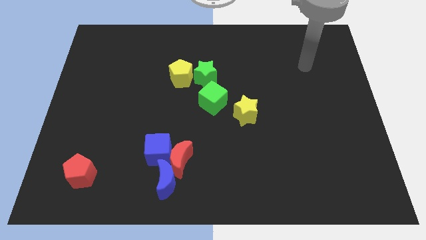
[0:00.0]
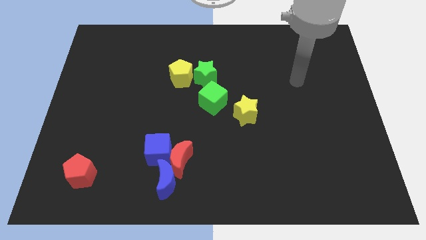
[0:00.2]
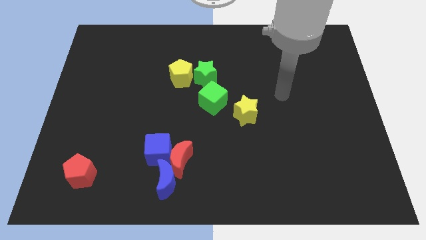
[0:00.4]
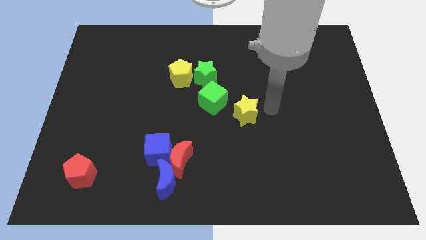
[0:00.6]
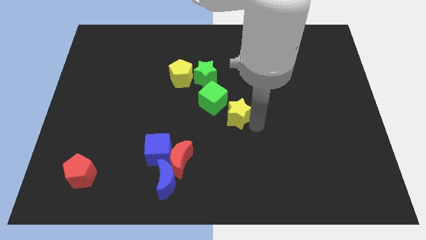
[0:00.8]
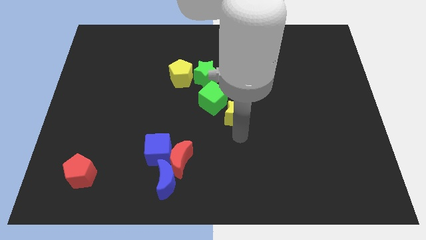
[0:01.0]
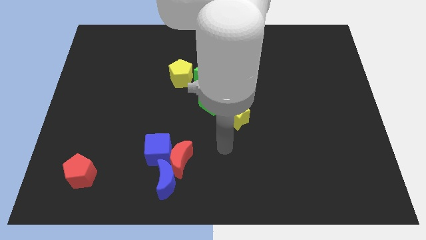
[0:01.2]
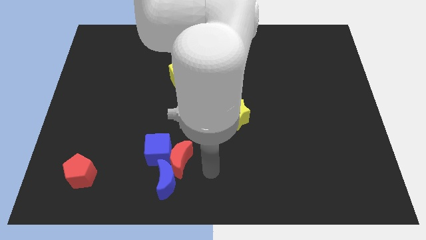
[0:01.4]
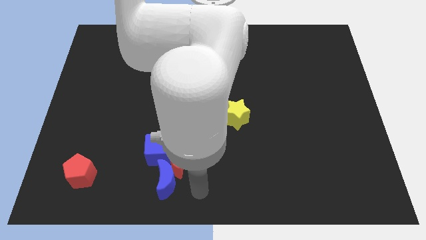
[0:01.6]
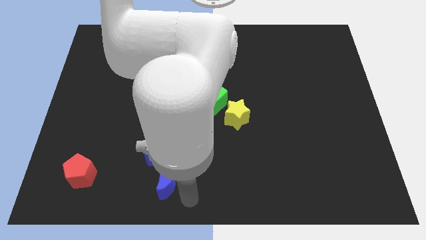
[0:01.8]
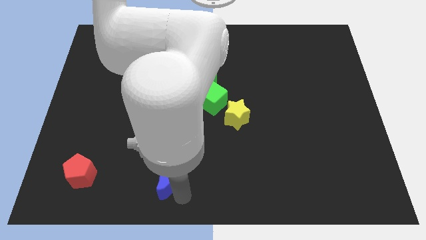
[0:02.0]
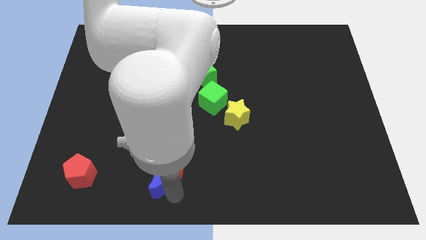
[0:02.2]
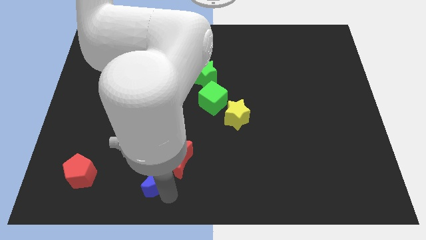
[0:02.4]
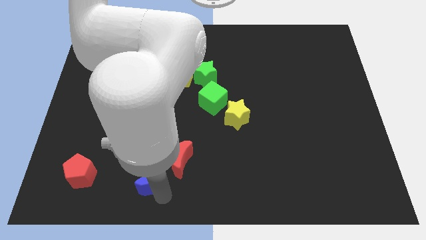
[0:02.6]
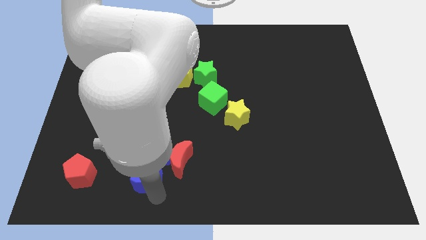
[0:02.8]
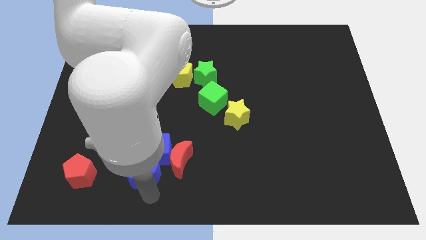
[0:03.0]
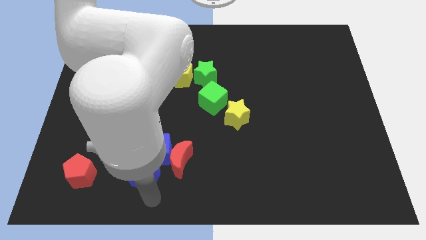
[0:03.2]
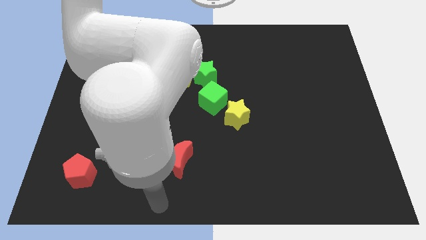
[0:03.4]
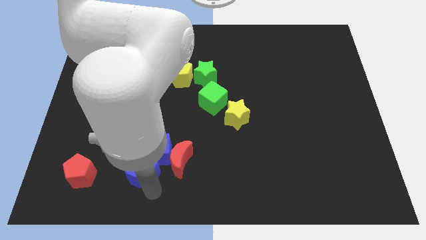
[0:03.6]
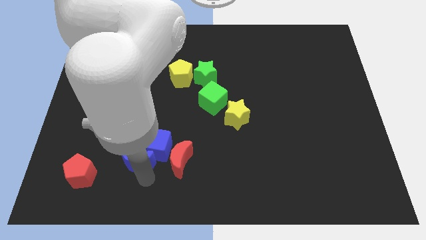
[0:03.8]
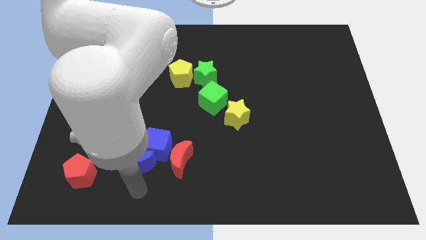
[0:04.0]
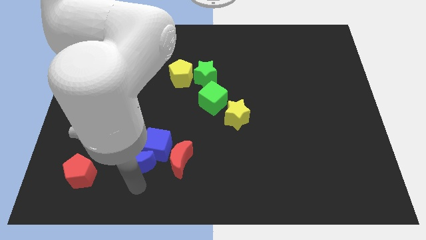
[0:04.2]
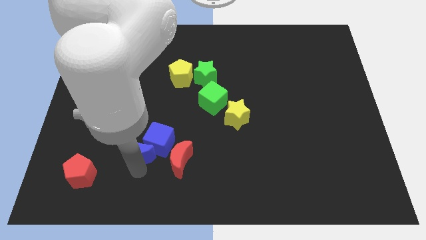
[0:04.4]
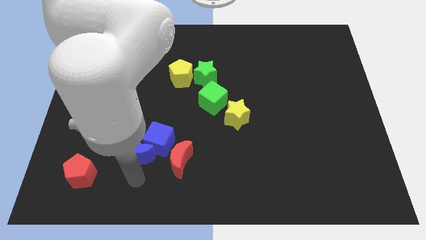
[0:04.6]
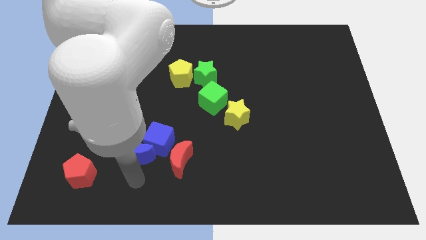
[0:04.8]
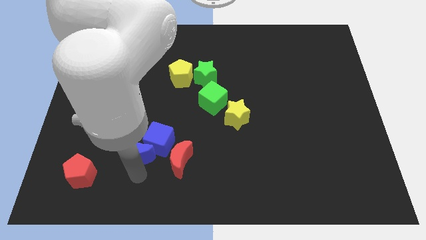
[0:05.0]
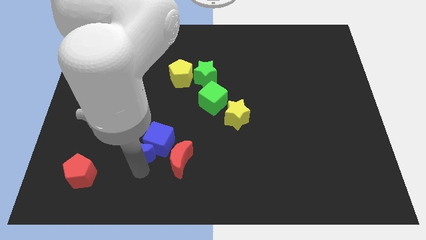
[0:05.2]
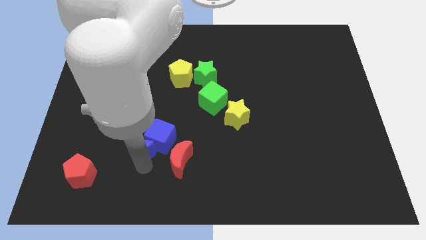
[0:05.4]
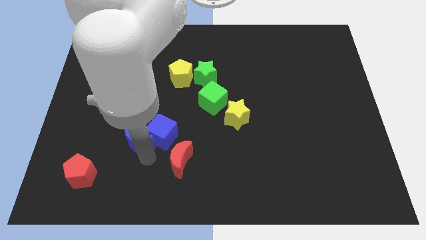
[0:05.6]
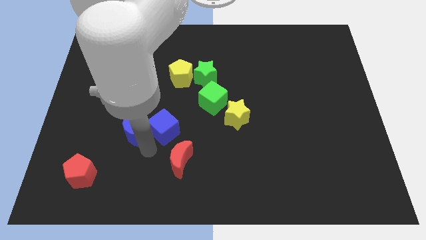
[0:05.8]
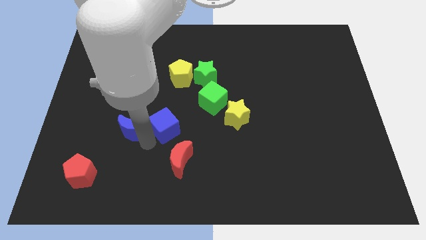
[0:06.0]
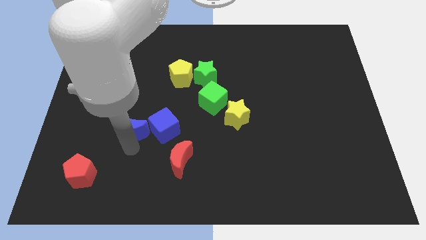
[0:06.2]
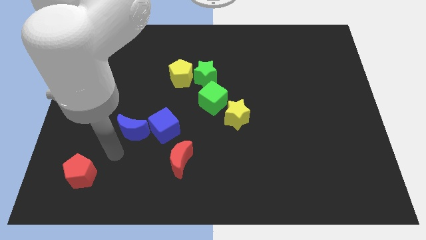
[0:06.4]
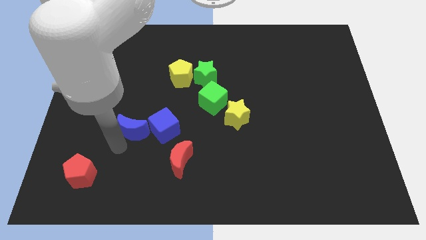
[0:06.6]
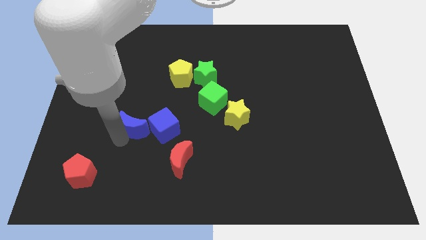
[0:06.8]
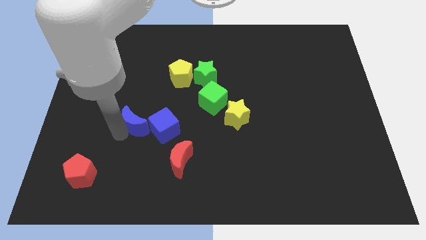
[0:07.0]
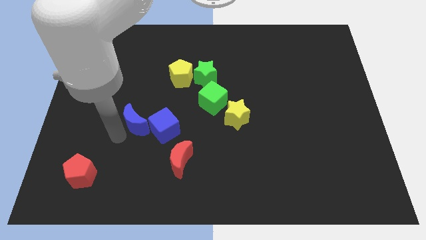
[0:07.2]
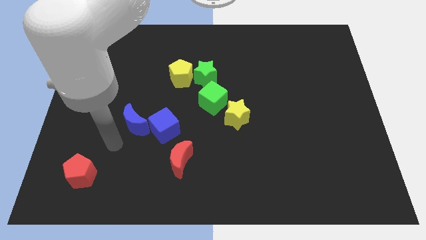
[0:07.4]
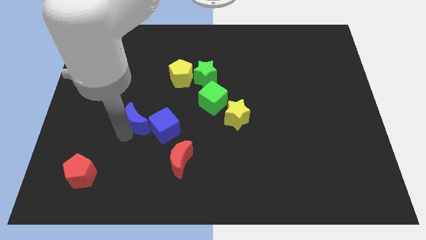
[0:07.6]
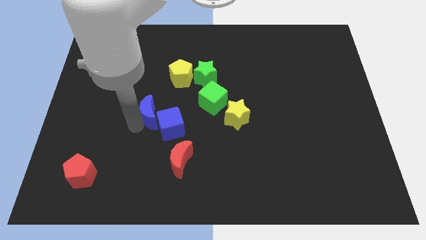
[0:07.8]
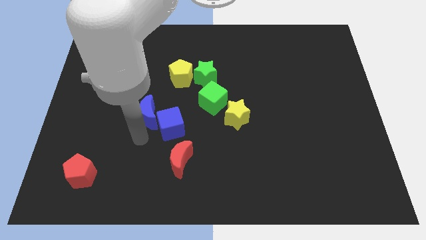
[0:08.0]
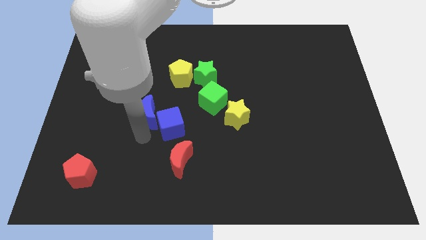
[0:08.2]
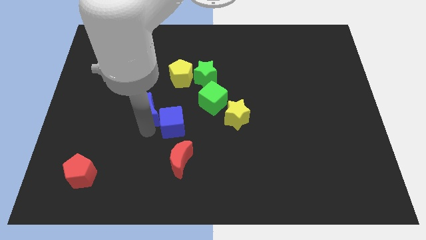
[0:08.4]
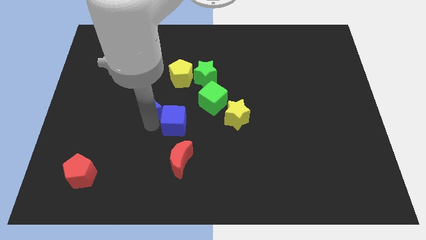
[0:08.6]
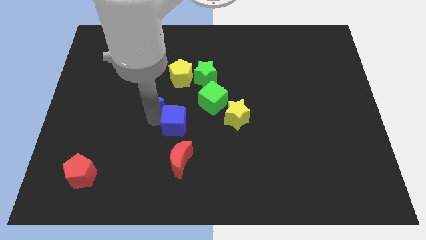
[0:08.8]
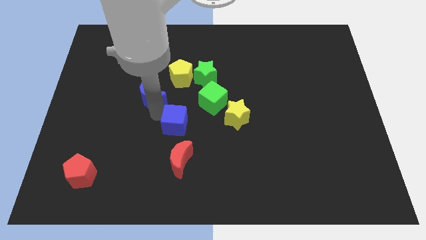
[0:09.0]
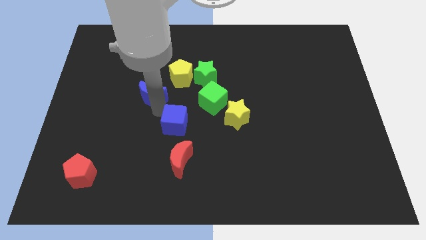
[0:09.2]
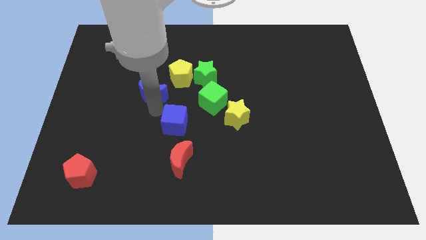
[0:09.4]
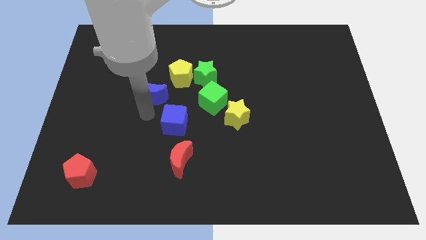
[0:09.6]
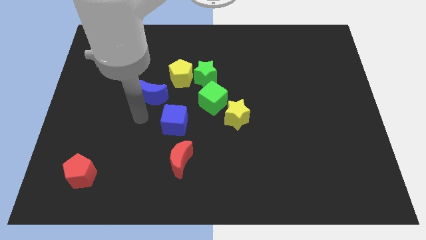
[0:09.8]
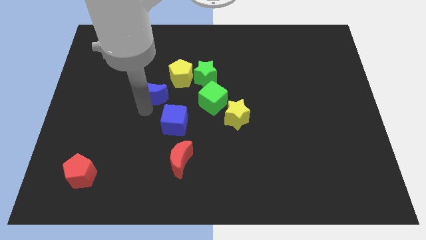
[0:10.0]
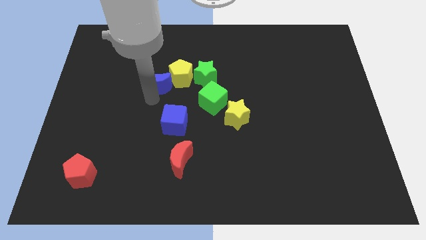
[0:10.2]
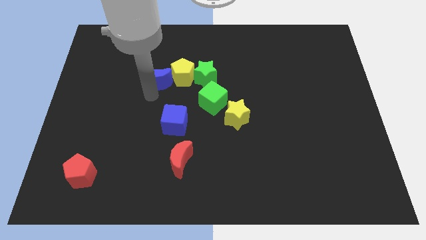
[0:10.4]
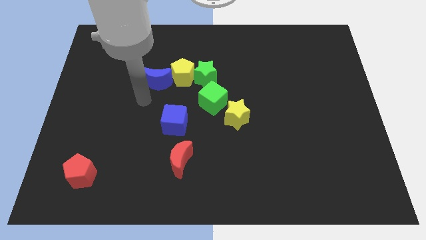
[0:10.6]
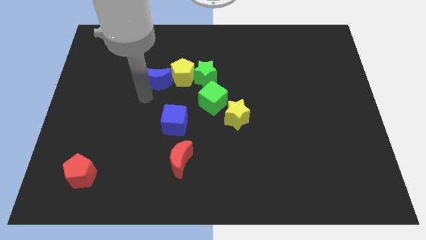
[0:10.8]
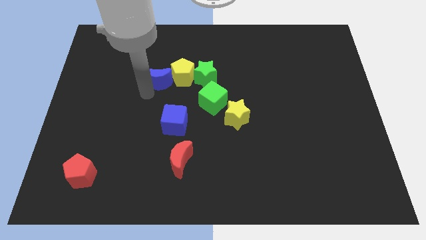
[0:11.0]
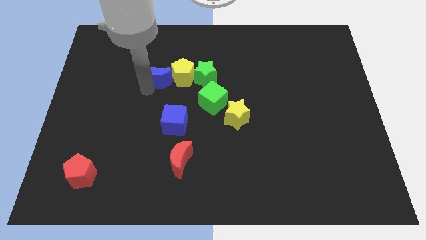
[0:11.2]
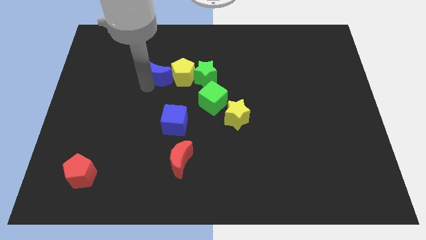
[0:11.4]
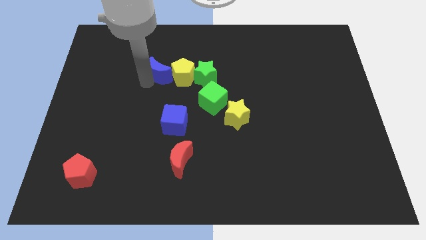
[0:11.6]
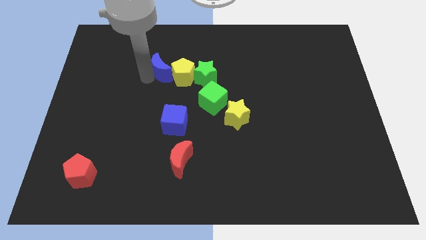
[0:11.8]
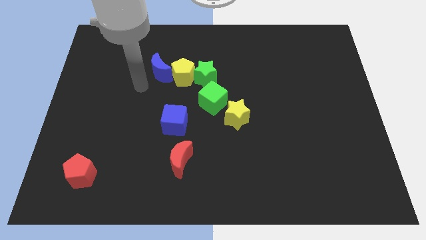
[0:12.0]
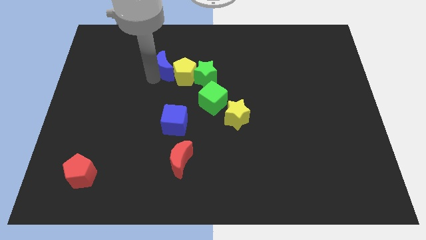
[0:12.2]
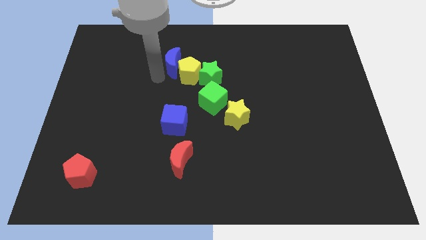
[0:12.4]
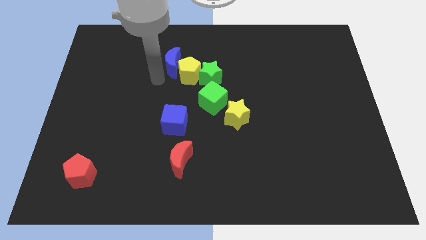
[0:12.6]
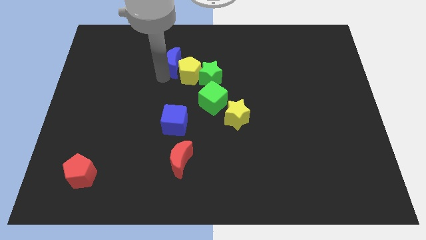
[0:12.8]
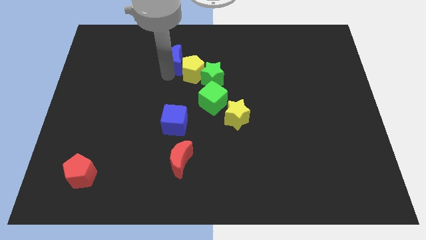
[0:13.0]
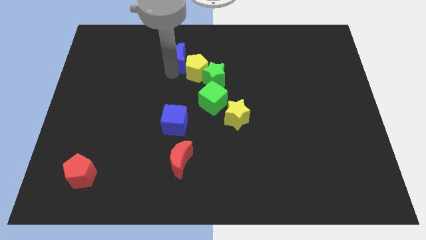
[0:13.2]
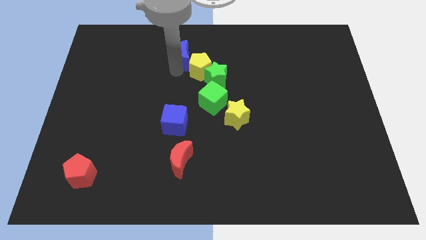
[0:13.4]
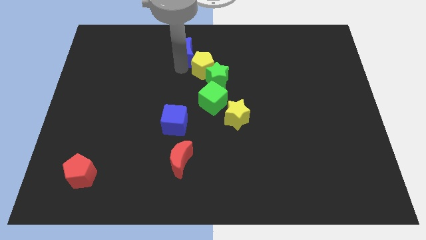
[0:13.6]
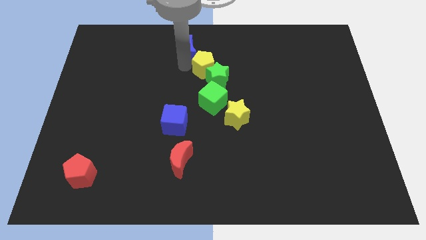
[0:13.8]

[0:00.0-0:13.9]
push the blue moon to the towards your base

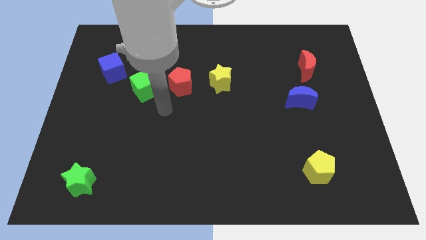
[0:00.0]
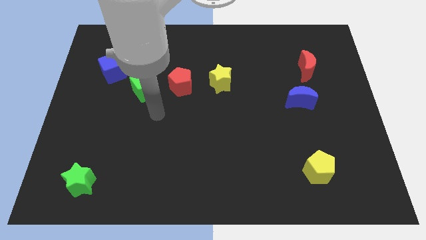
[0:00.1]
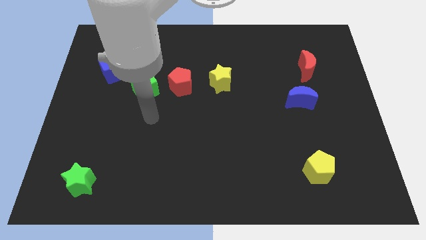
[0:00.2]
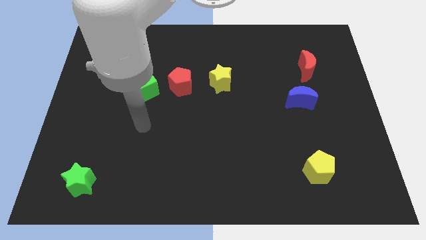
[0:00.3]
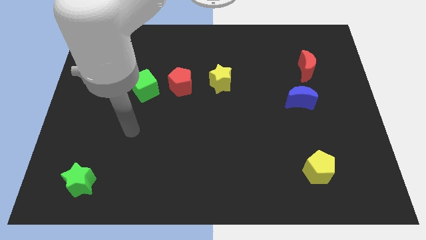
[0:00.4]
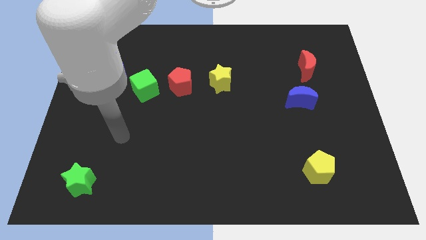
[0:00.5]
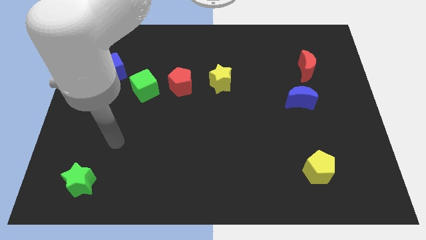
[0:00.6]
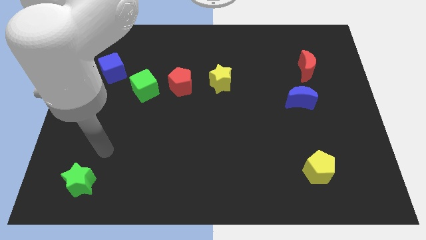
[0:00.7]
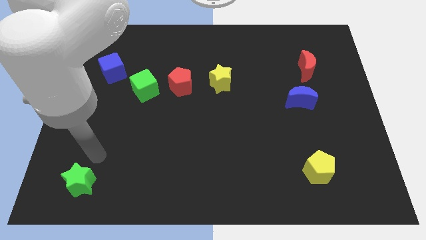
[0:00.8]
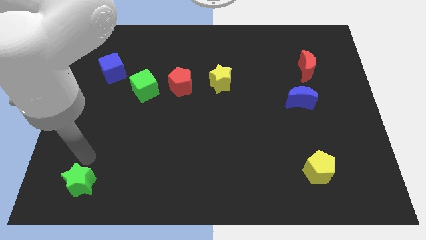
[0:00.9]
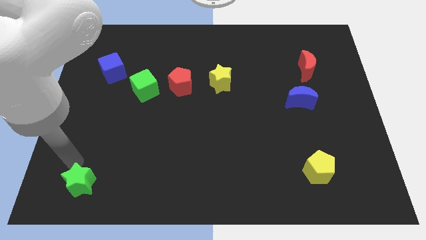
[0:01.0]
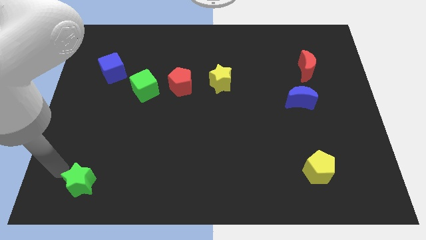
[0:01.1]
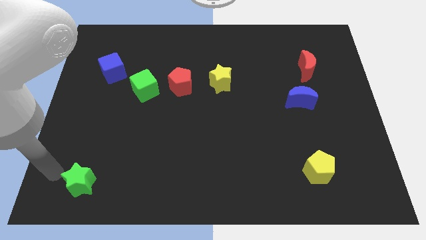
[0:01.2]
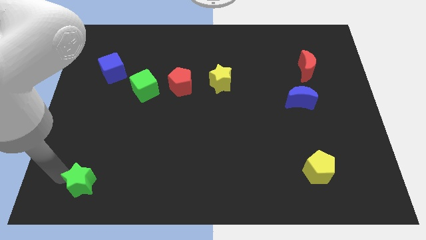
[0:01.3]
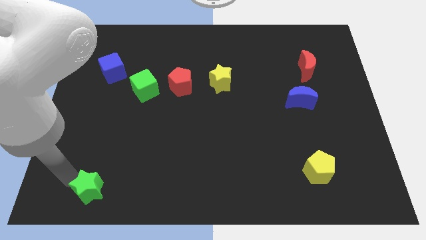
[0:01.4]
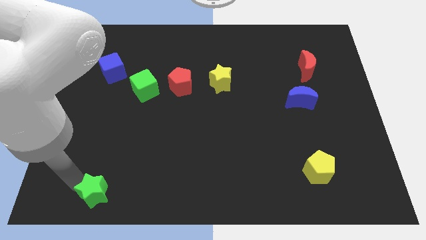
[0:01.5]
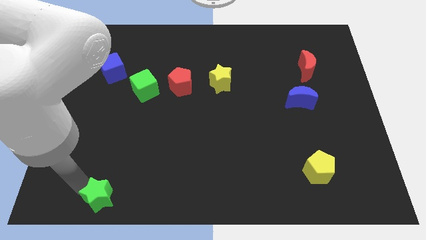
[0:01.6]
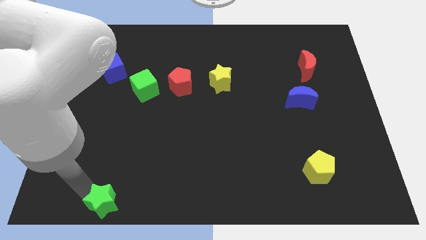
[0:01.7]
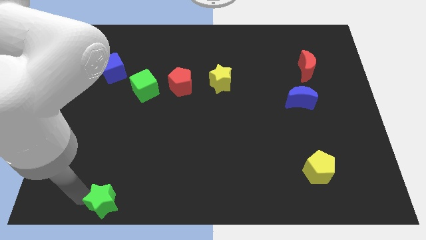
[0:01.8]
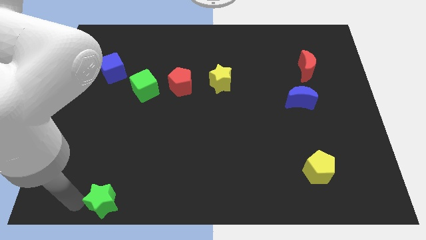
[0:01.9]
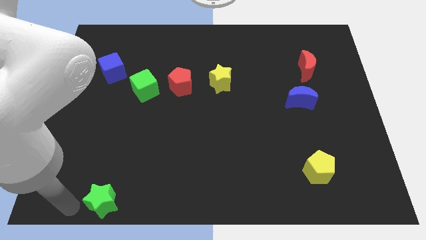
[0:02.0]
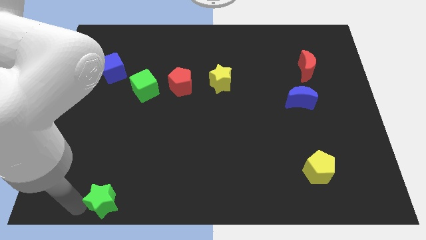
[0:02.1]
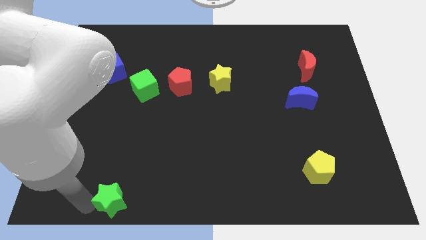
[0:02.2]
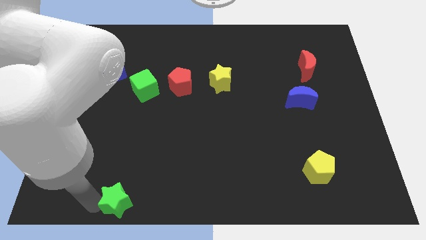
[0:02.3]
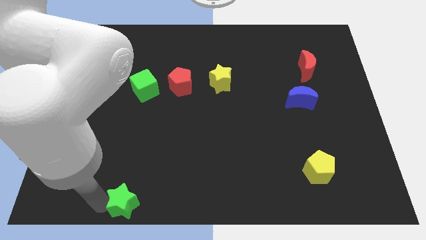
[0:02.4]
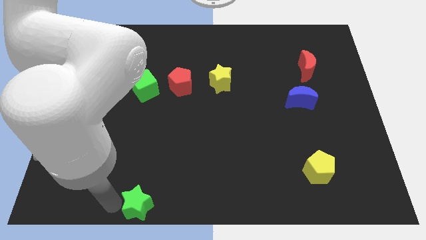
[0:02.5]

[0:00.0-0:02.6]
slide the green star to the bottom side
